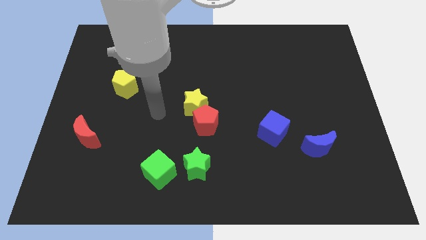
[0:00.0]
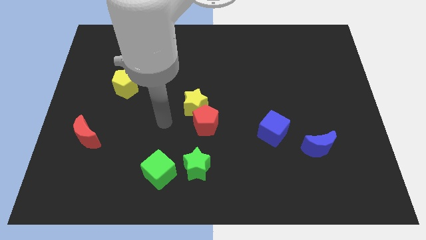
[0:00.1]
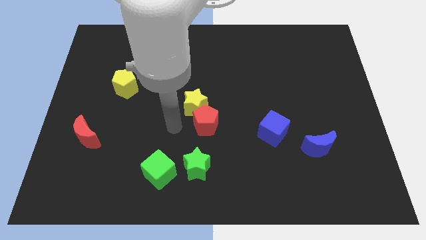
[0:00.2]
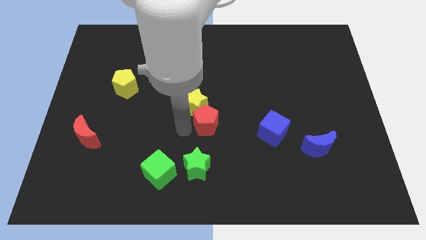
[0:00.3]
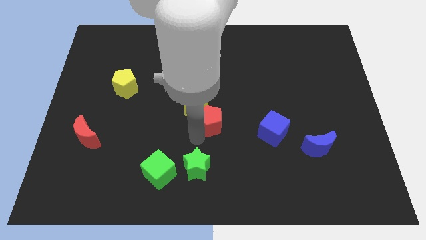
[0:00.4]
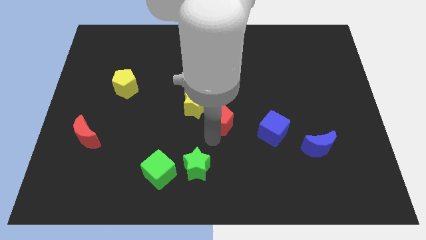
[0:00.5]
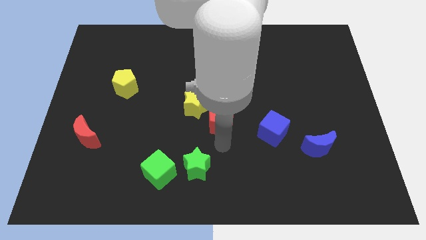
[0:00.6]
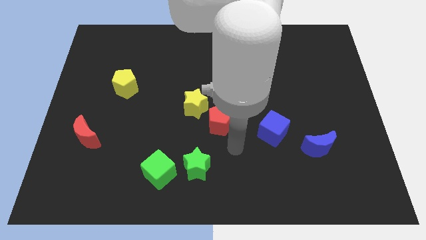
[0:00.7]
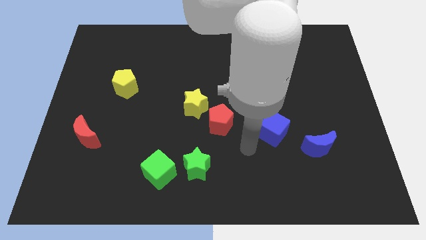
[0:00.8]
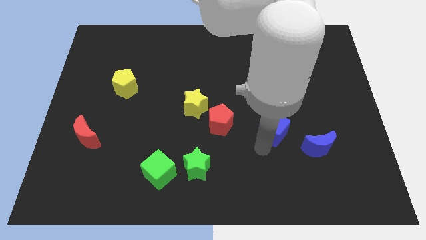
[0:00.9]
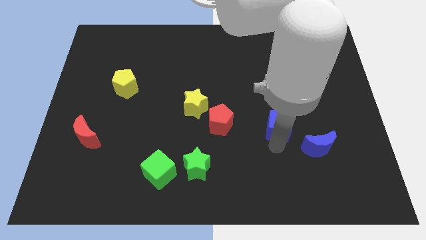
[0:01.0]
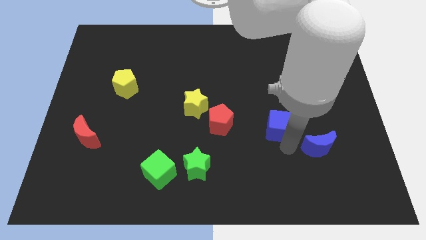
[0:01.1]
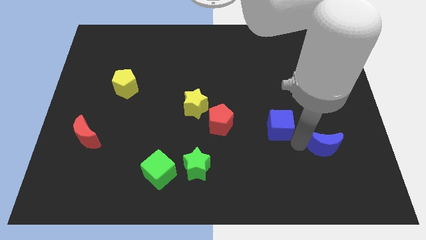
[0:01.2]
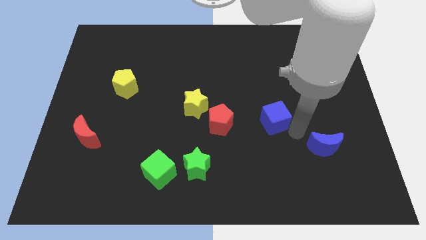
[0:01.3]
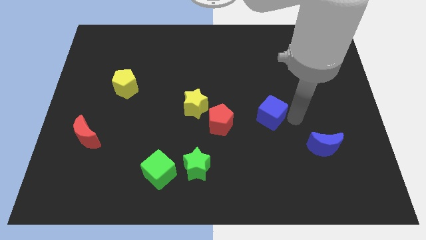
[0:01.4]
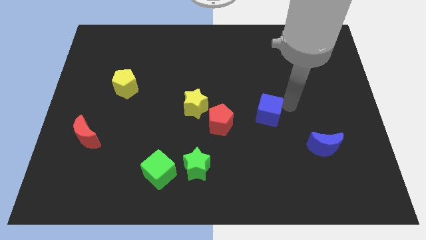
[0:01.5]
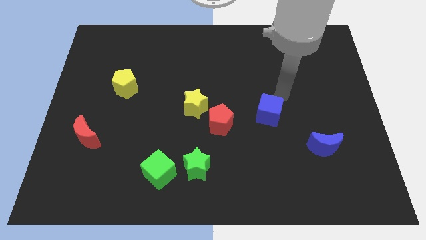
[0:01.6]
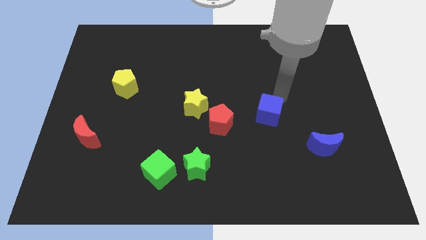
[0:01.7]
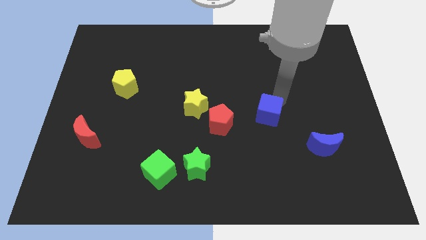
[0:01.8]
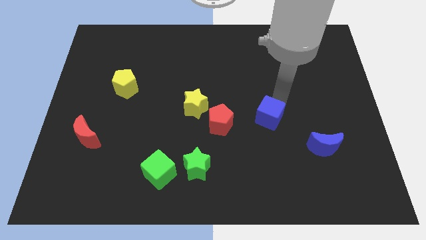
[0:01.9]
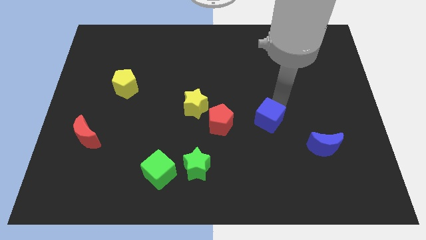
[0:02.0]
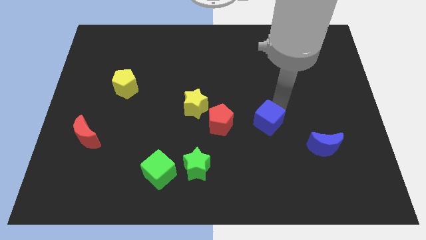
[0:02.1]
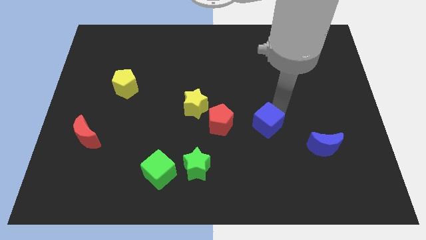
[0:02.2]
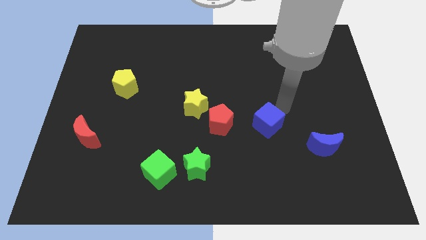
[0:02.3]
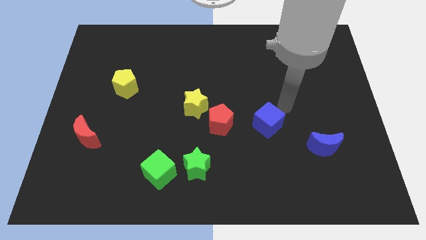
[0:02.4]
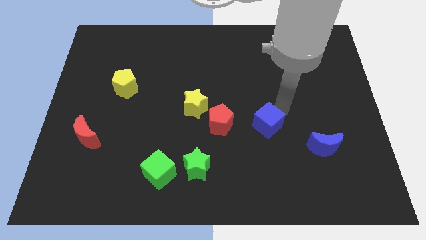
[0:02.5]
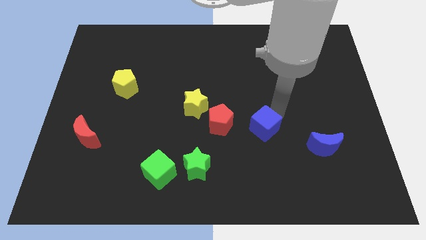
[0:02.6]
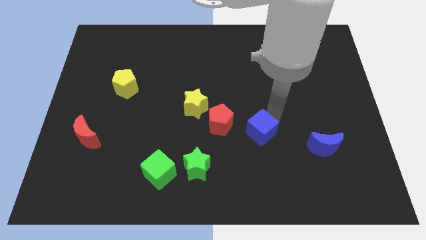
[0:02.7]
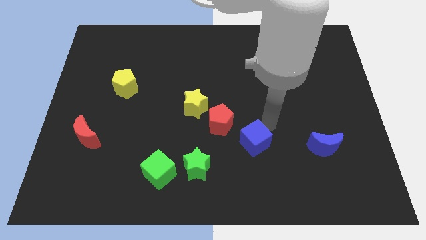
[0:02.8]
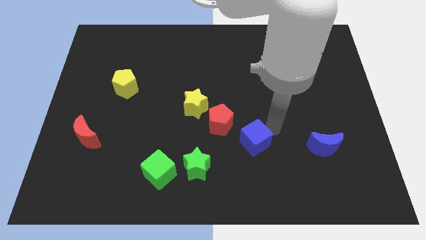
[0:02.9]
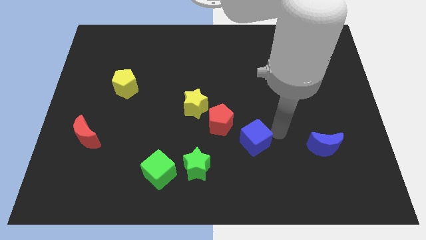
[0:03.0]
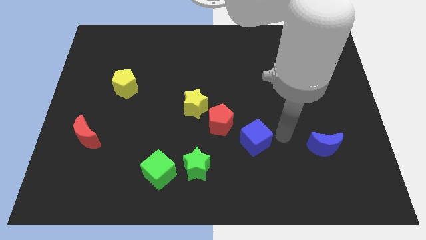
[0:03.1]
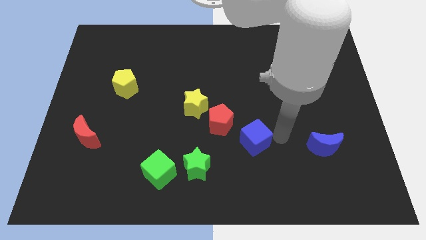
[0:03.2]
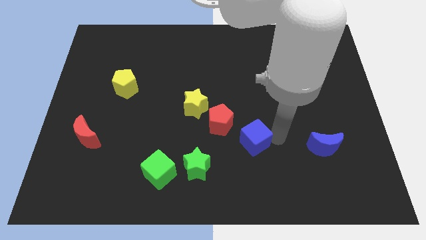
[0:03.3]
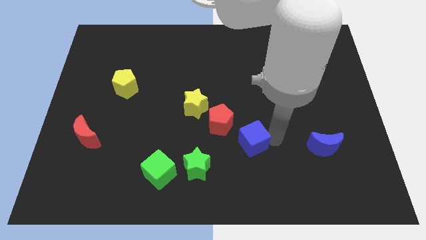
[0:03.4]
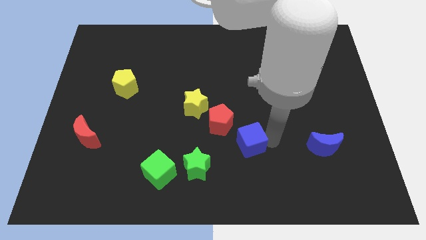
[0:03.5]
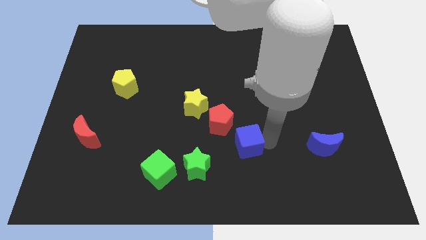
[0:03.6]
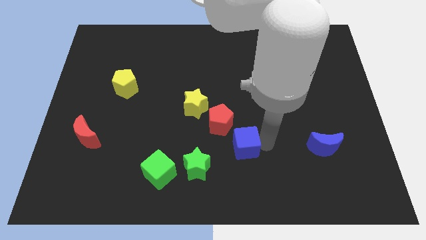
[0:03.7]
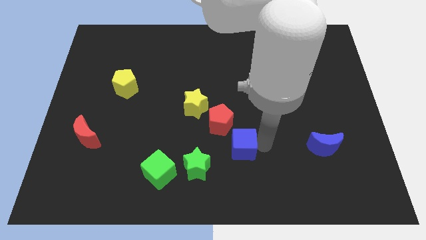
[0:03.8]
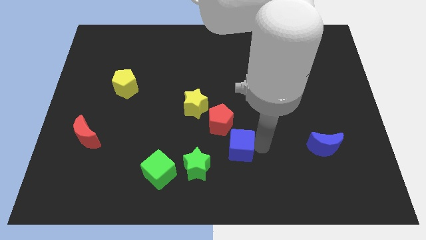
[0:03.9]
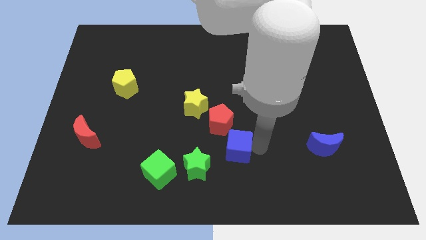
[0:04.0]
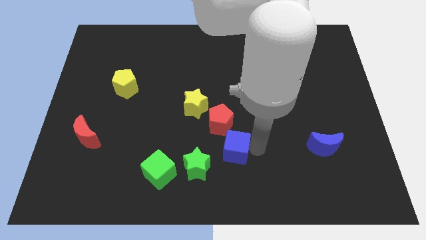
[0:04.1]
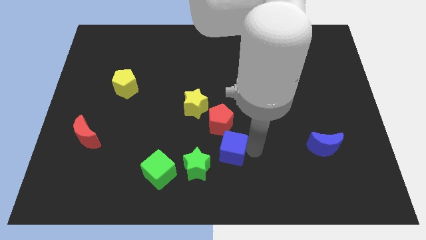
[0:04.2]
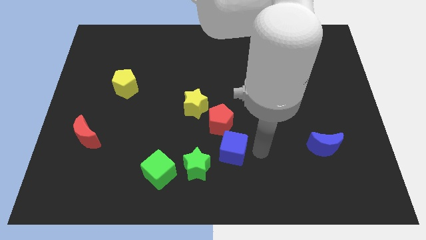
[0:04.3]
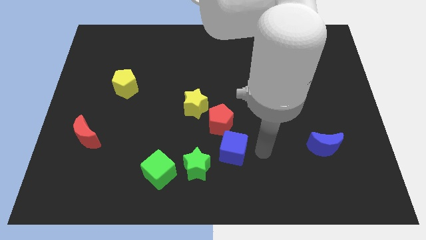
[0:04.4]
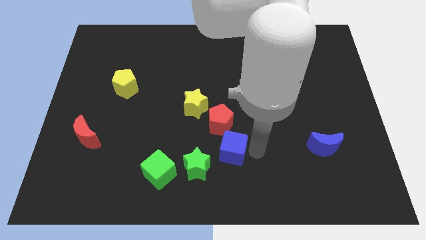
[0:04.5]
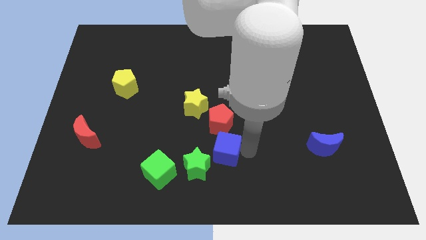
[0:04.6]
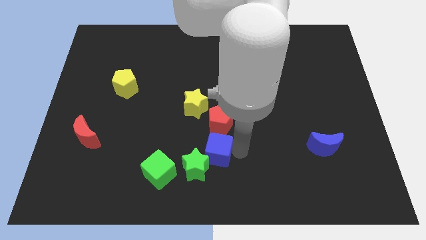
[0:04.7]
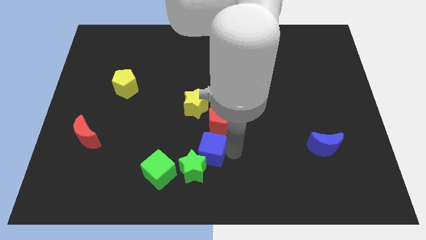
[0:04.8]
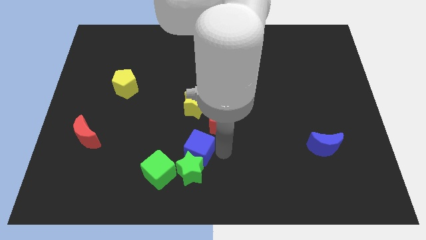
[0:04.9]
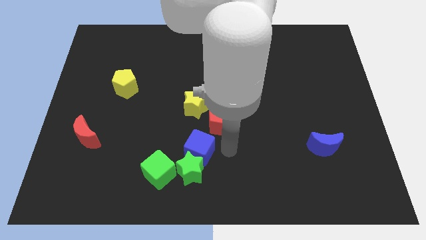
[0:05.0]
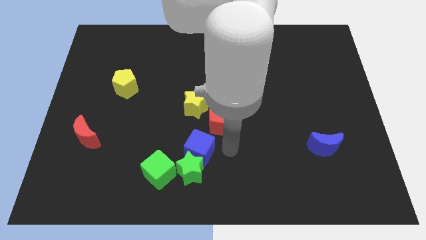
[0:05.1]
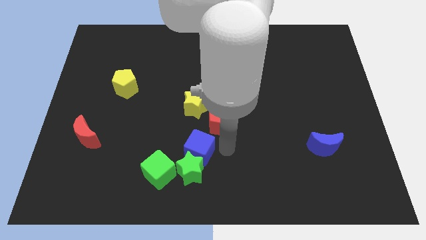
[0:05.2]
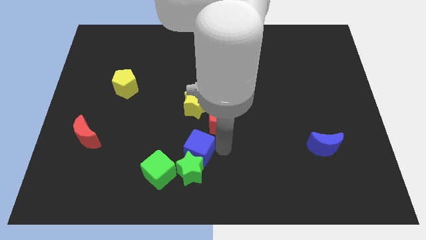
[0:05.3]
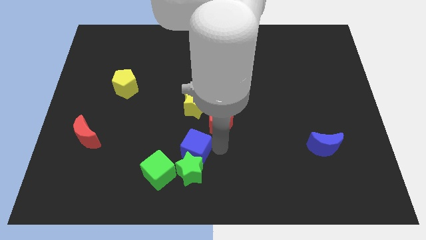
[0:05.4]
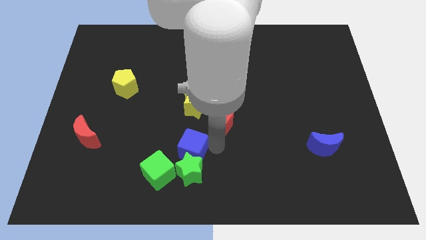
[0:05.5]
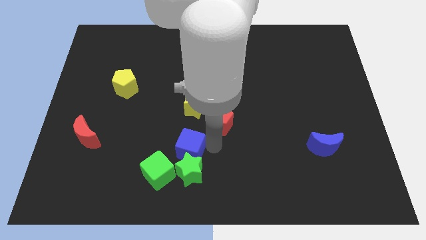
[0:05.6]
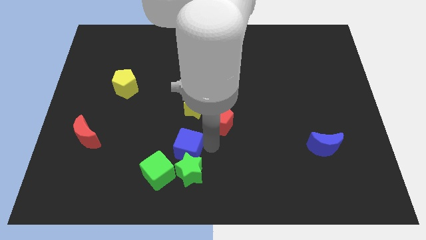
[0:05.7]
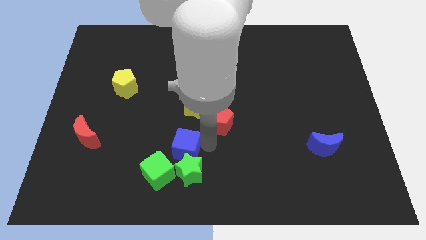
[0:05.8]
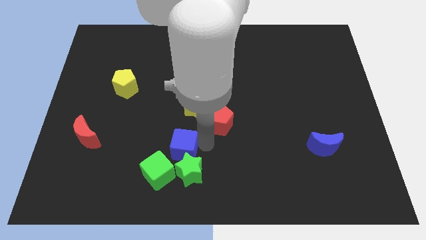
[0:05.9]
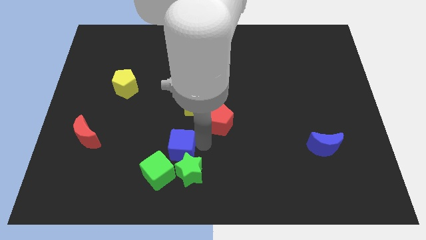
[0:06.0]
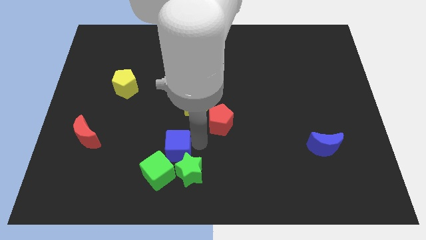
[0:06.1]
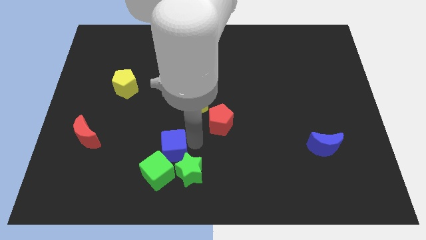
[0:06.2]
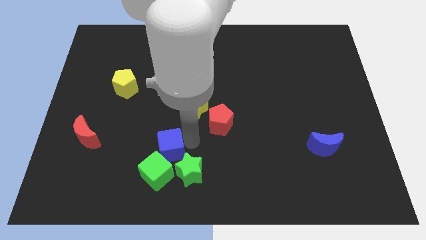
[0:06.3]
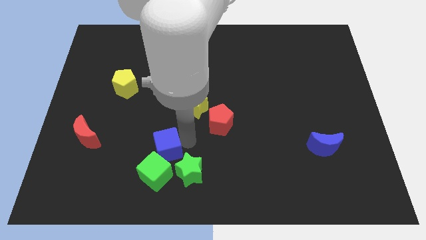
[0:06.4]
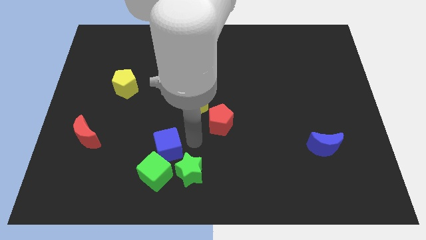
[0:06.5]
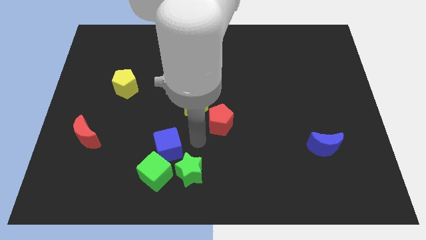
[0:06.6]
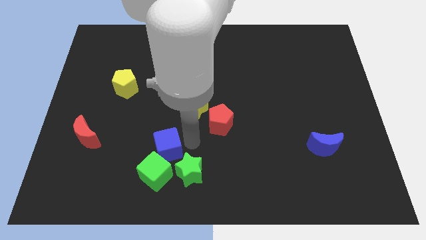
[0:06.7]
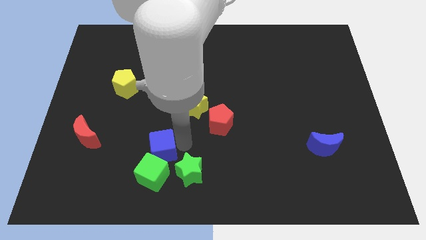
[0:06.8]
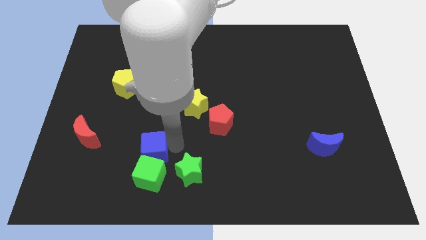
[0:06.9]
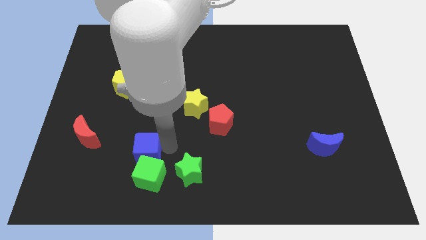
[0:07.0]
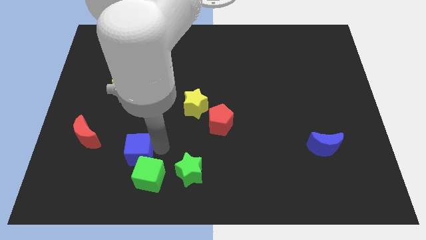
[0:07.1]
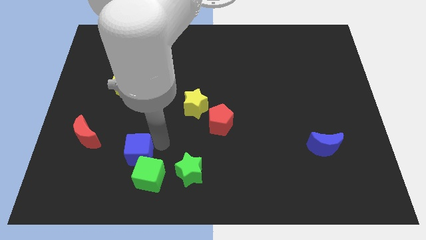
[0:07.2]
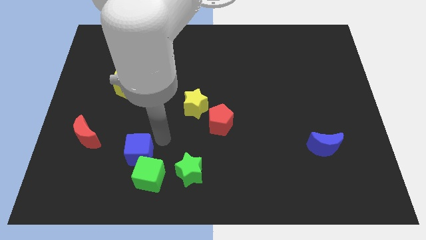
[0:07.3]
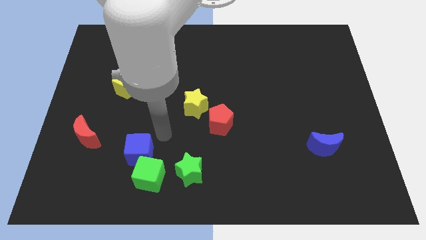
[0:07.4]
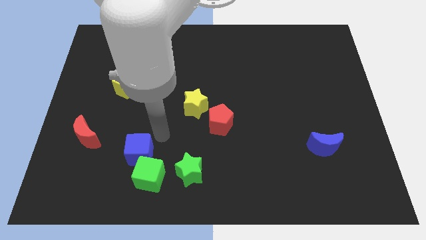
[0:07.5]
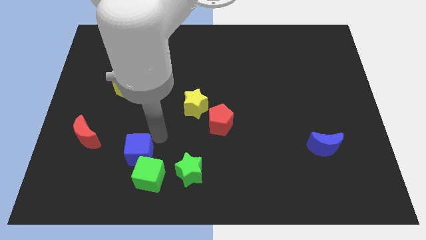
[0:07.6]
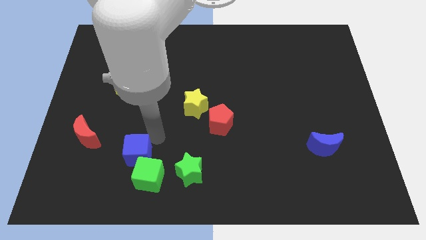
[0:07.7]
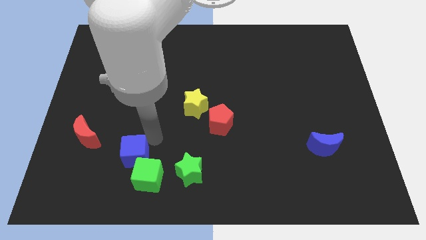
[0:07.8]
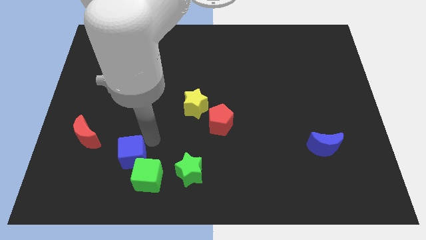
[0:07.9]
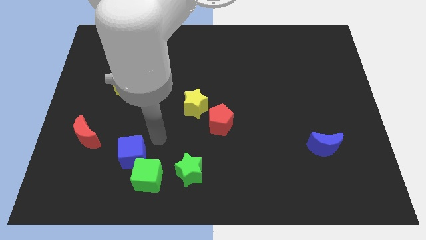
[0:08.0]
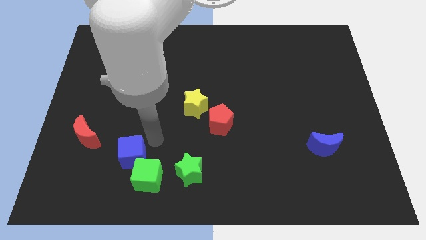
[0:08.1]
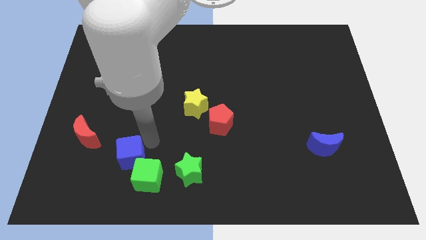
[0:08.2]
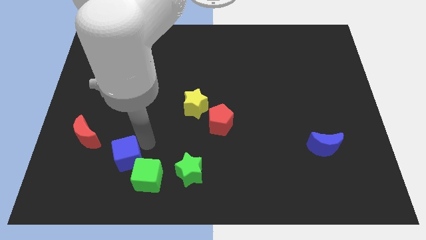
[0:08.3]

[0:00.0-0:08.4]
push the blue cube left of the green cube
